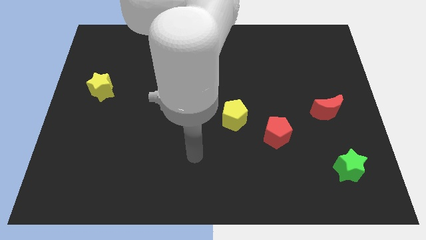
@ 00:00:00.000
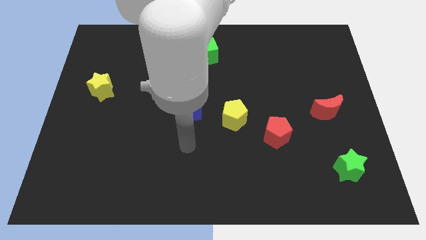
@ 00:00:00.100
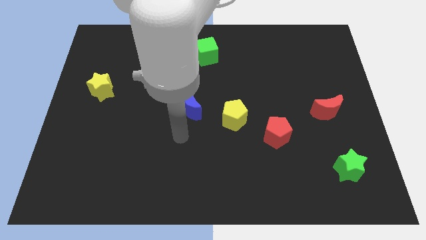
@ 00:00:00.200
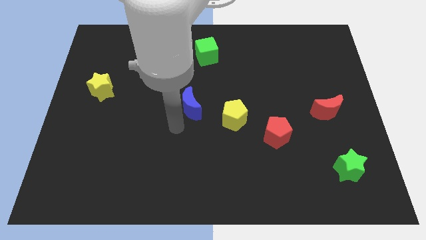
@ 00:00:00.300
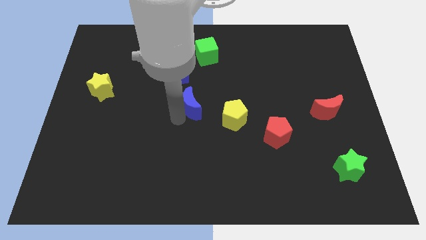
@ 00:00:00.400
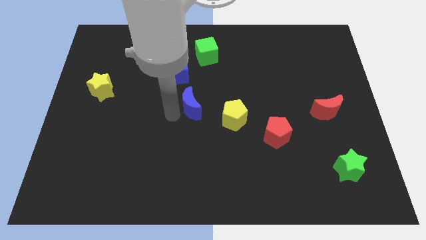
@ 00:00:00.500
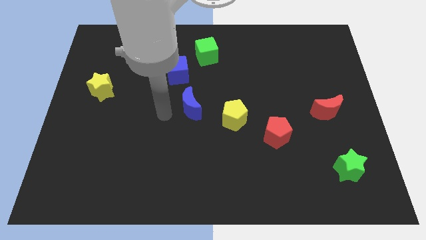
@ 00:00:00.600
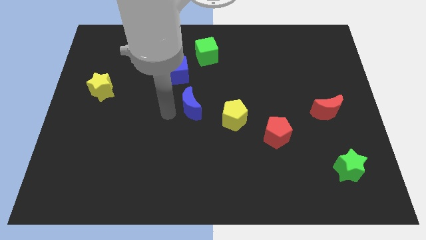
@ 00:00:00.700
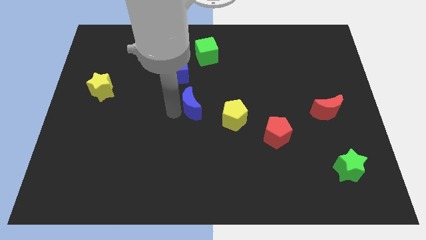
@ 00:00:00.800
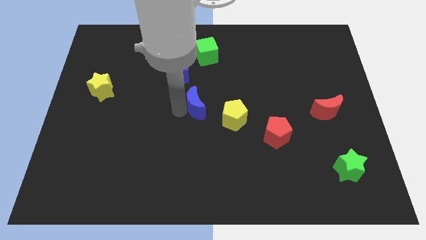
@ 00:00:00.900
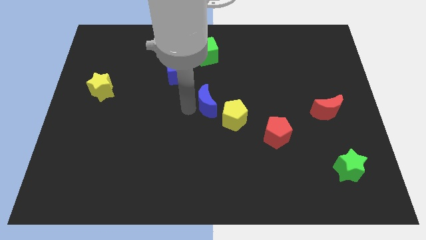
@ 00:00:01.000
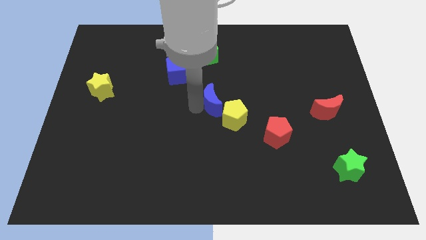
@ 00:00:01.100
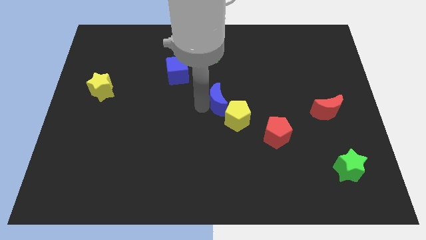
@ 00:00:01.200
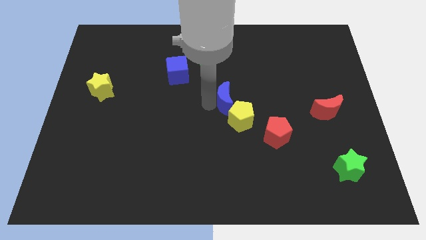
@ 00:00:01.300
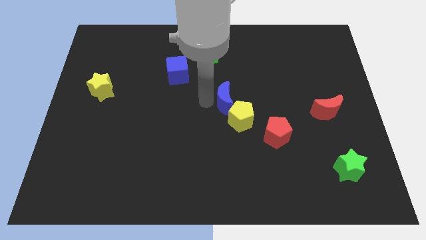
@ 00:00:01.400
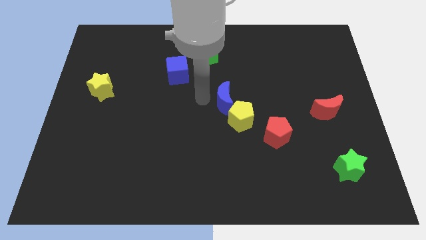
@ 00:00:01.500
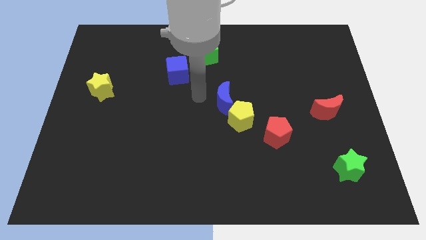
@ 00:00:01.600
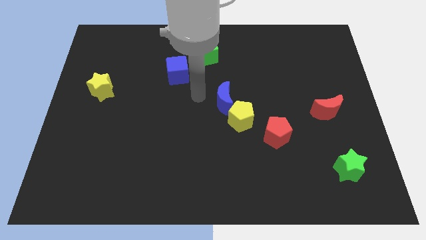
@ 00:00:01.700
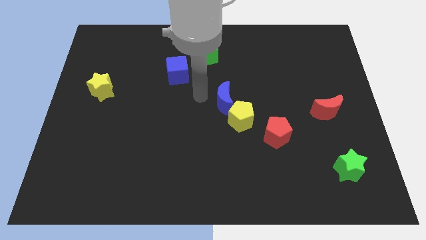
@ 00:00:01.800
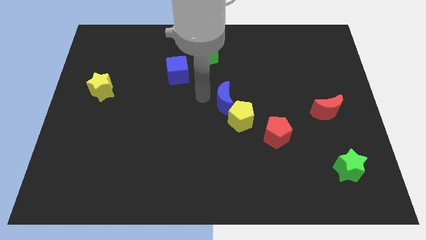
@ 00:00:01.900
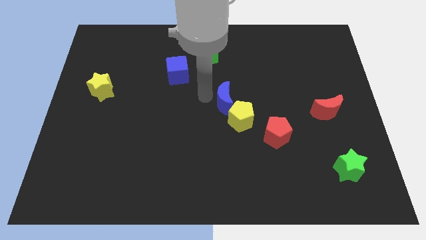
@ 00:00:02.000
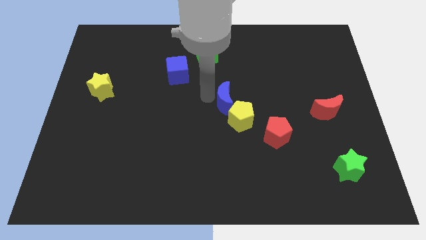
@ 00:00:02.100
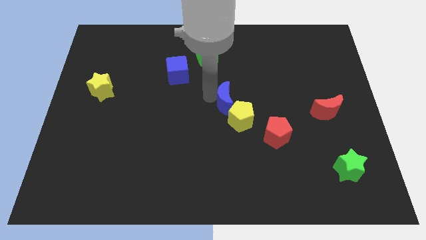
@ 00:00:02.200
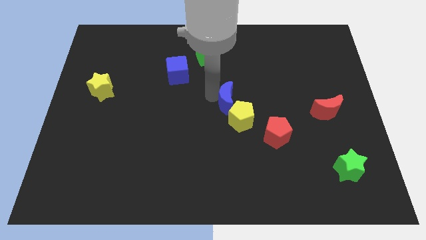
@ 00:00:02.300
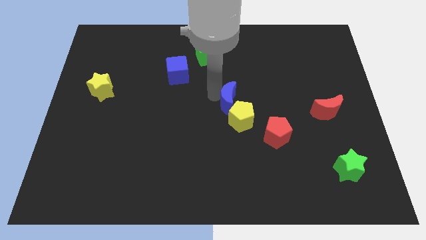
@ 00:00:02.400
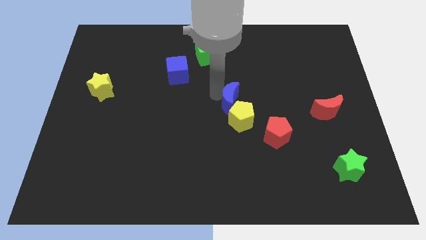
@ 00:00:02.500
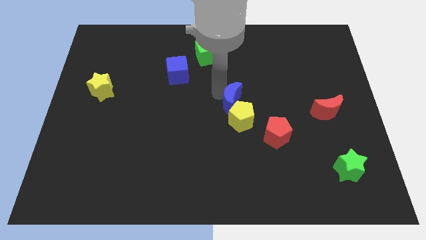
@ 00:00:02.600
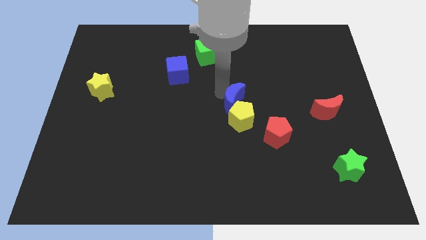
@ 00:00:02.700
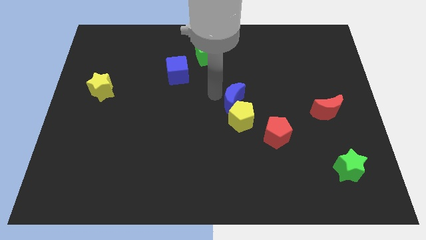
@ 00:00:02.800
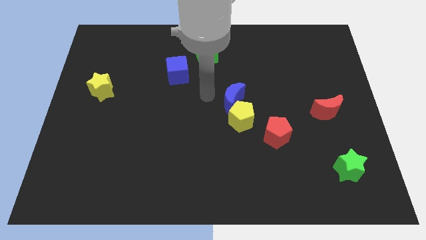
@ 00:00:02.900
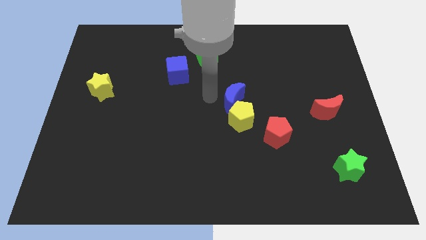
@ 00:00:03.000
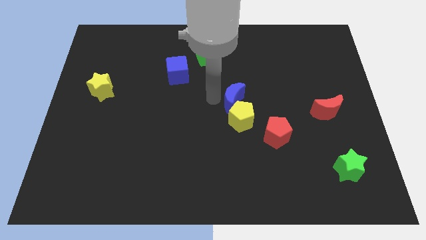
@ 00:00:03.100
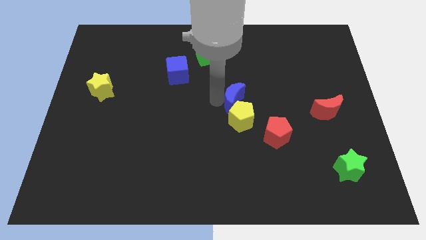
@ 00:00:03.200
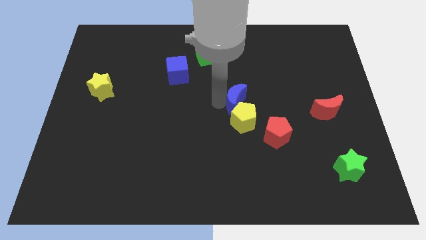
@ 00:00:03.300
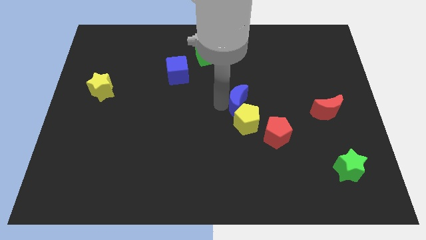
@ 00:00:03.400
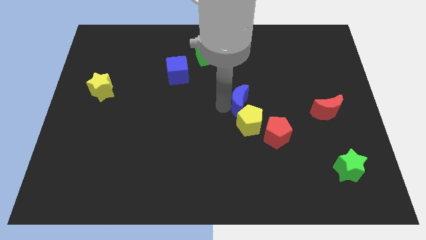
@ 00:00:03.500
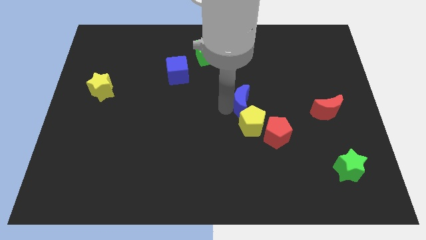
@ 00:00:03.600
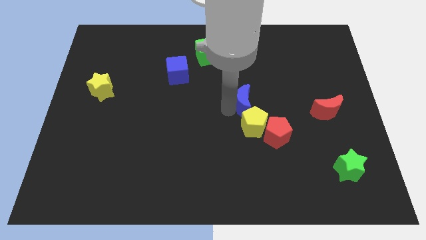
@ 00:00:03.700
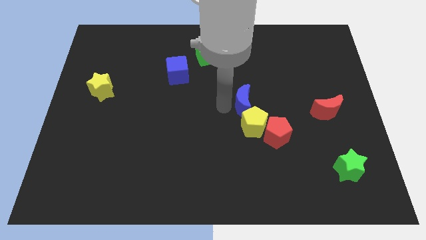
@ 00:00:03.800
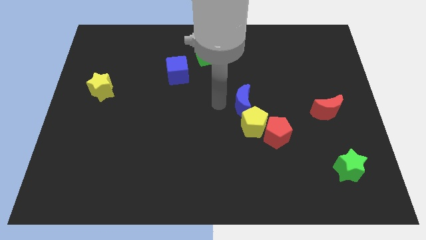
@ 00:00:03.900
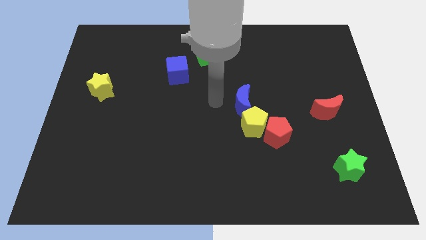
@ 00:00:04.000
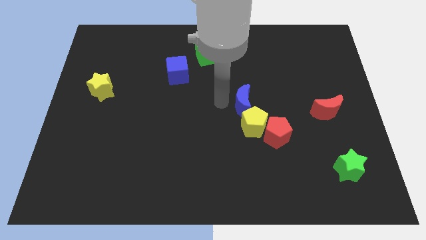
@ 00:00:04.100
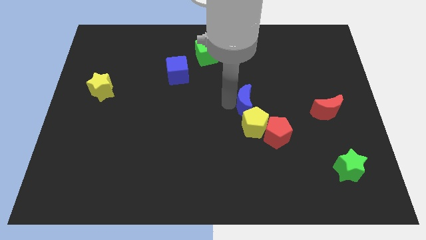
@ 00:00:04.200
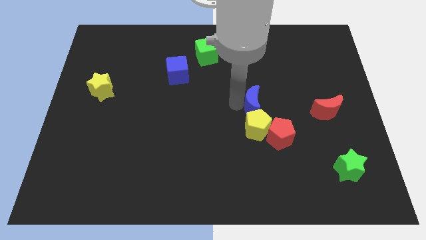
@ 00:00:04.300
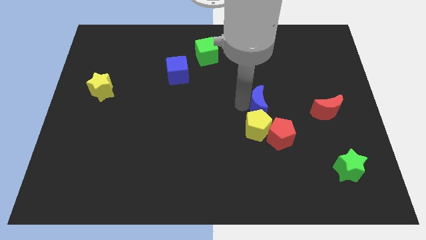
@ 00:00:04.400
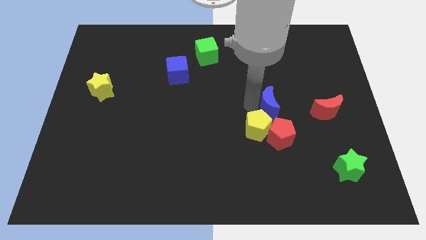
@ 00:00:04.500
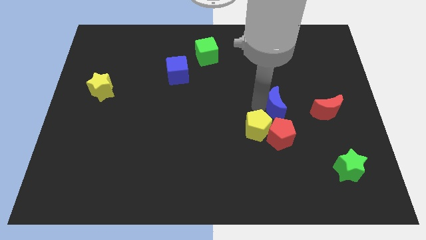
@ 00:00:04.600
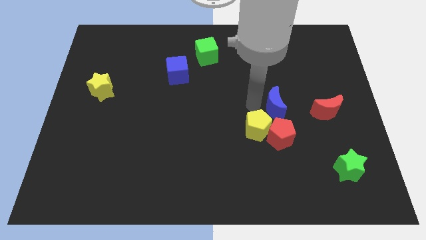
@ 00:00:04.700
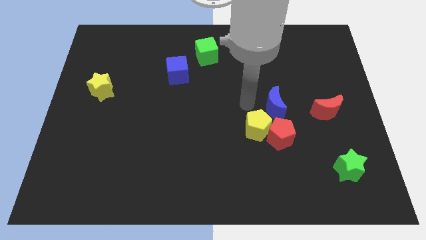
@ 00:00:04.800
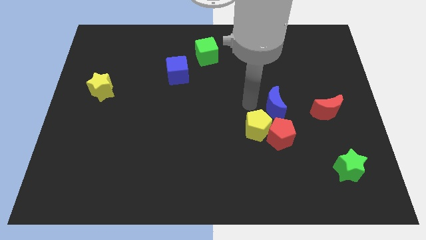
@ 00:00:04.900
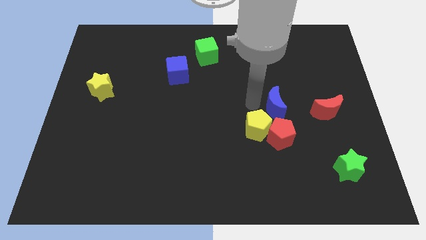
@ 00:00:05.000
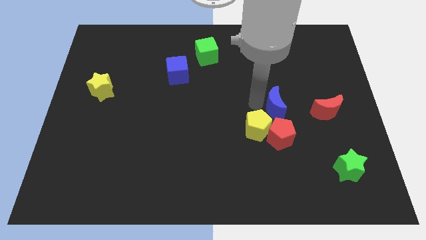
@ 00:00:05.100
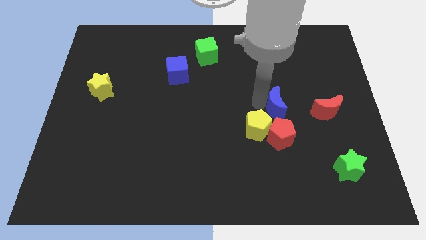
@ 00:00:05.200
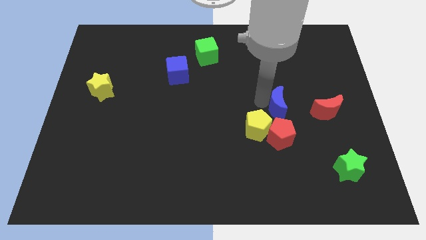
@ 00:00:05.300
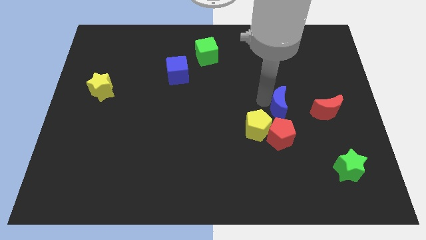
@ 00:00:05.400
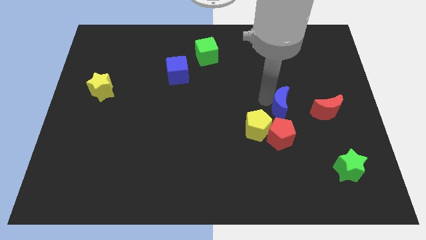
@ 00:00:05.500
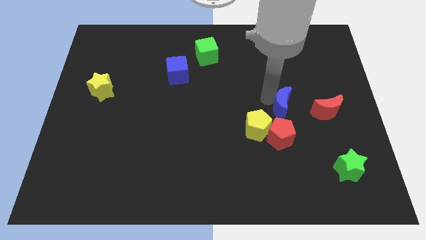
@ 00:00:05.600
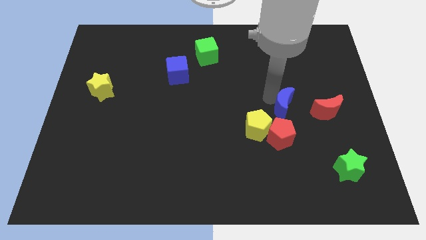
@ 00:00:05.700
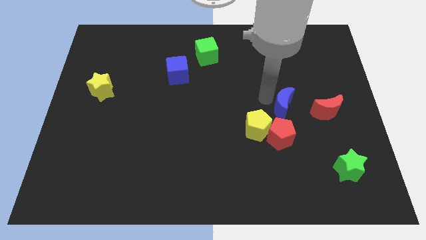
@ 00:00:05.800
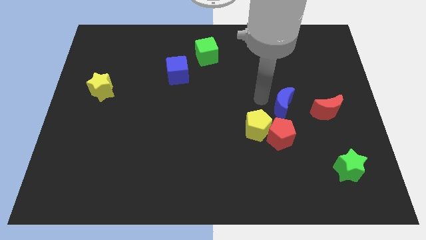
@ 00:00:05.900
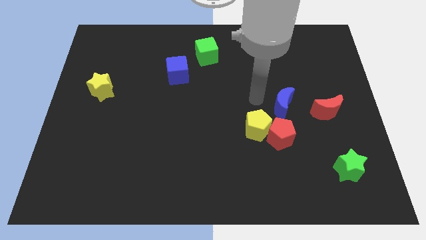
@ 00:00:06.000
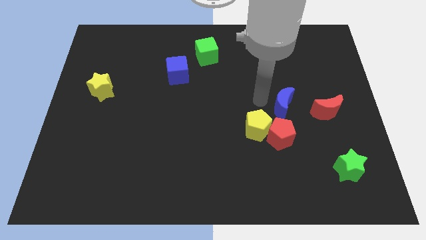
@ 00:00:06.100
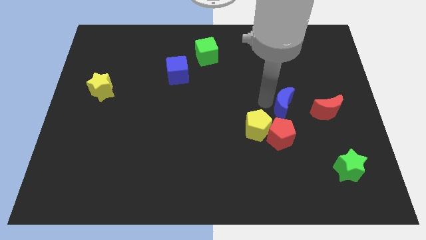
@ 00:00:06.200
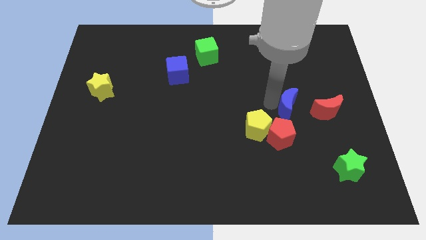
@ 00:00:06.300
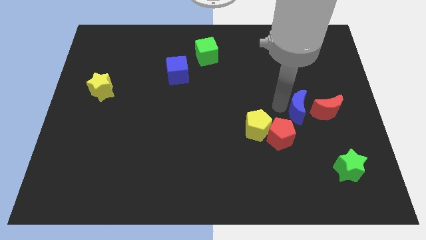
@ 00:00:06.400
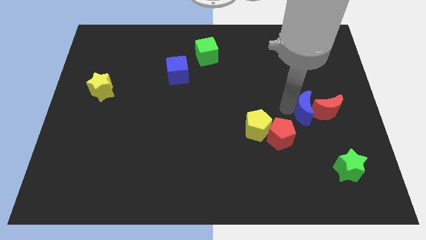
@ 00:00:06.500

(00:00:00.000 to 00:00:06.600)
put the blue moon next to the red moon

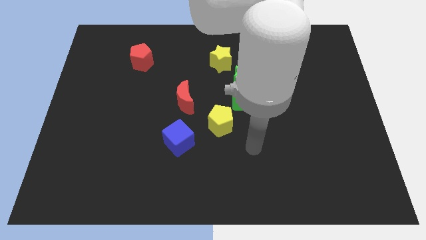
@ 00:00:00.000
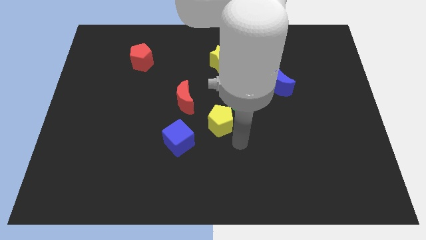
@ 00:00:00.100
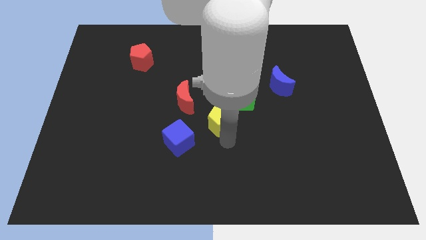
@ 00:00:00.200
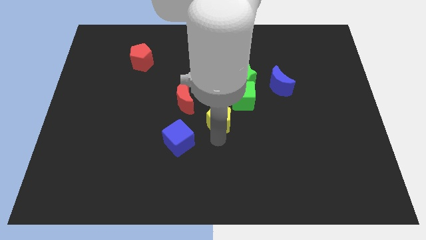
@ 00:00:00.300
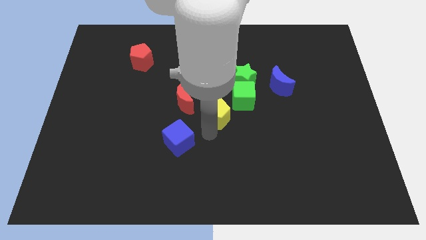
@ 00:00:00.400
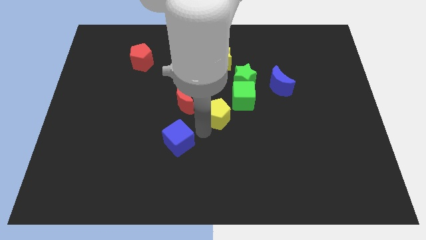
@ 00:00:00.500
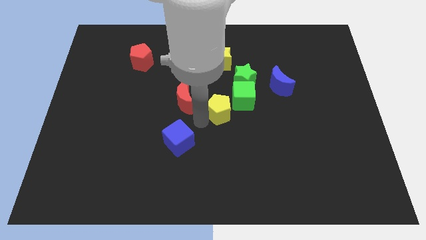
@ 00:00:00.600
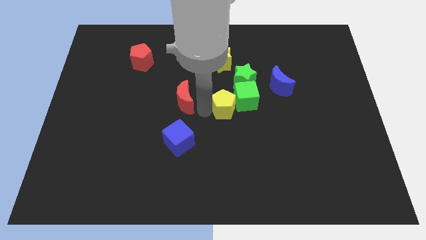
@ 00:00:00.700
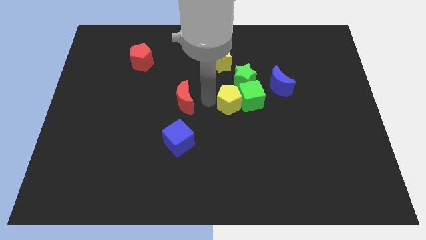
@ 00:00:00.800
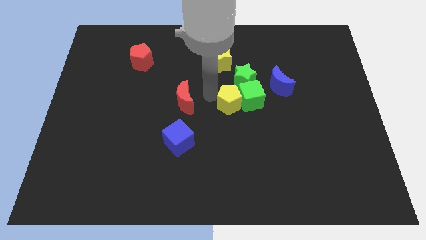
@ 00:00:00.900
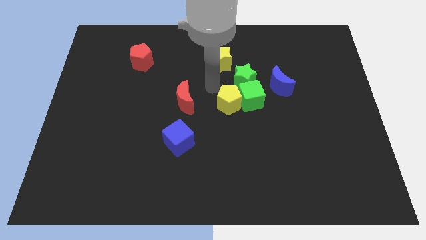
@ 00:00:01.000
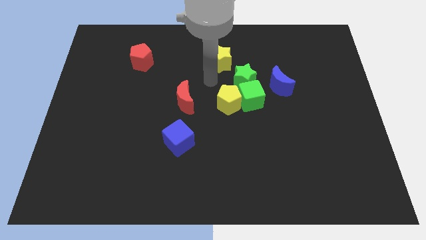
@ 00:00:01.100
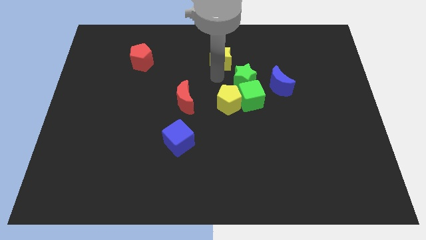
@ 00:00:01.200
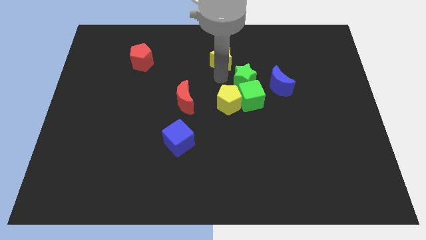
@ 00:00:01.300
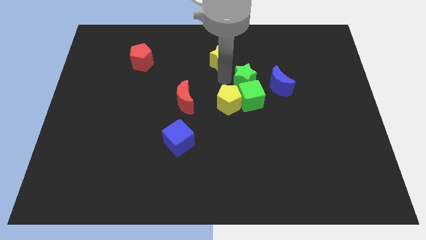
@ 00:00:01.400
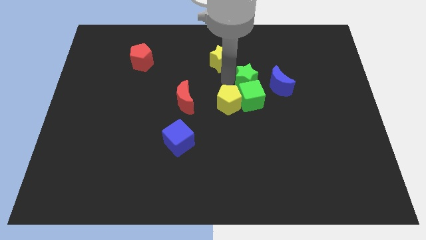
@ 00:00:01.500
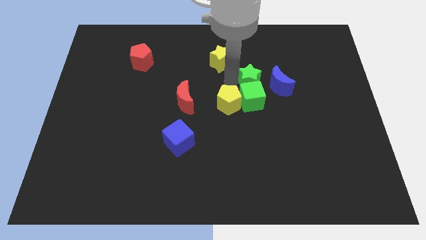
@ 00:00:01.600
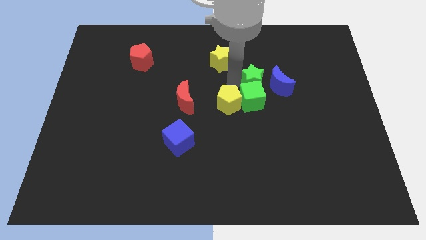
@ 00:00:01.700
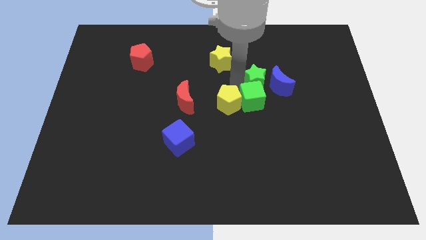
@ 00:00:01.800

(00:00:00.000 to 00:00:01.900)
slide the green star next to the blue moon
